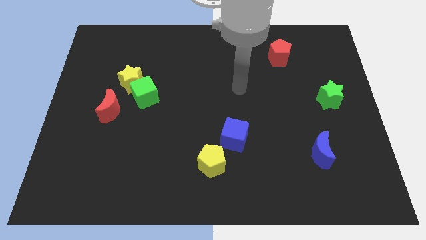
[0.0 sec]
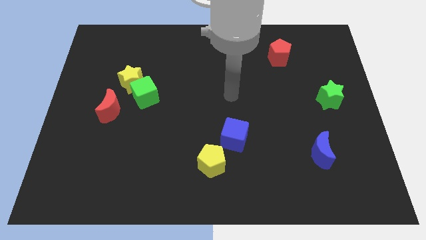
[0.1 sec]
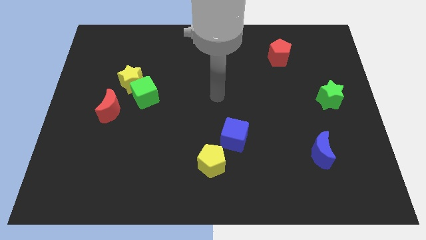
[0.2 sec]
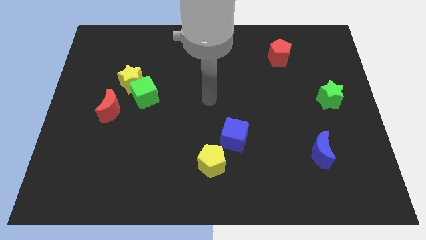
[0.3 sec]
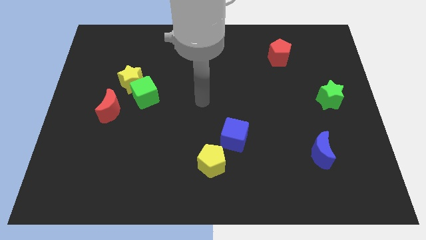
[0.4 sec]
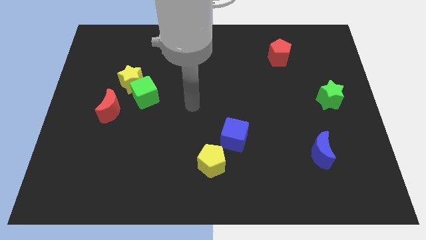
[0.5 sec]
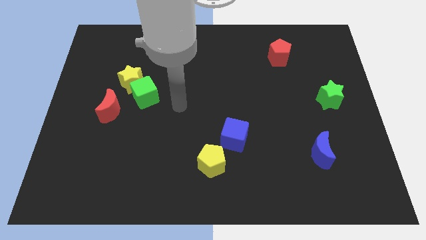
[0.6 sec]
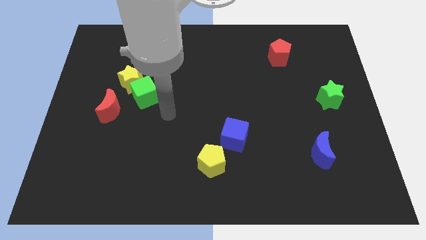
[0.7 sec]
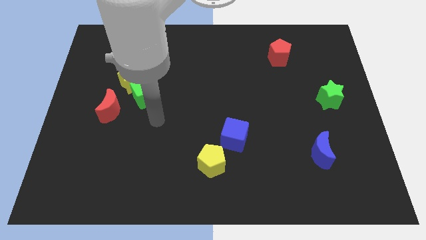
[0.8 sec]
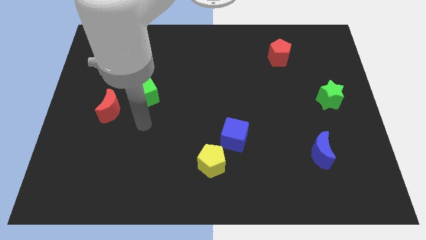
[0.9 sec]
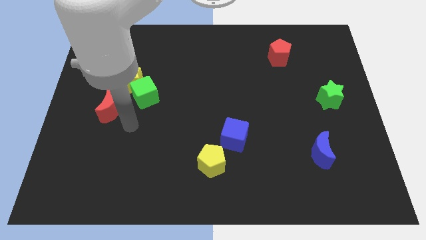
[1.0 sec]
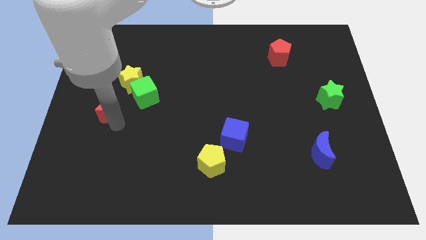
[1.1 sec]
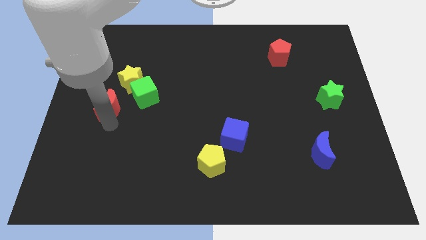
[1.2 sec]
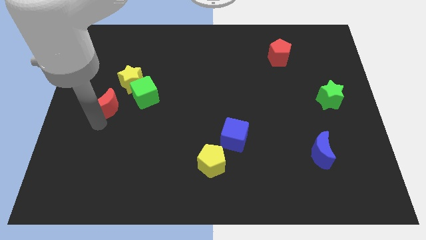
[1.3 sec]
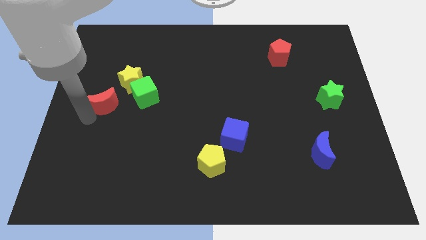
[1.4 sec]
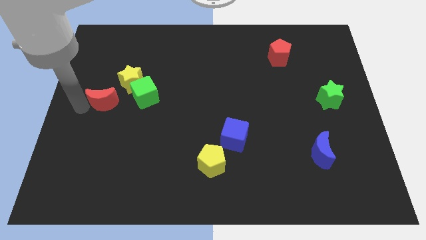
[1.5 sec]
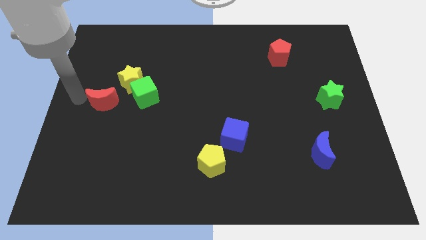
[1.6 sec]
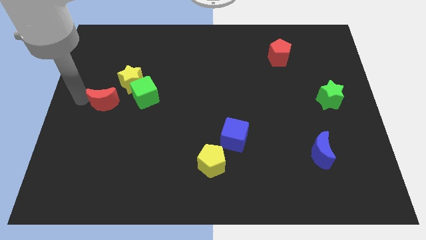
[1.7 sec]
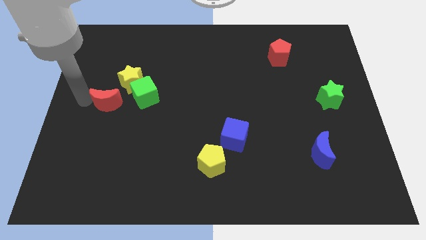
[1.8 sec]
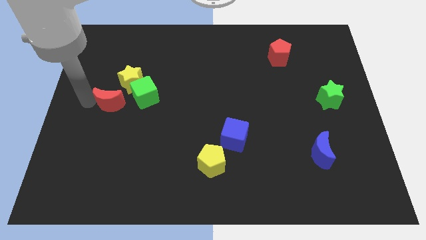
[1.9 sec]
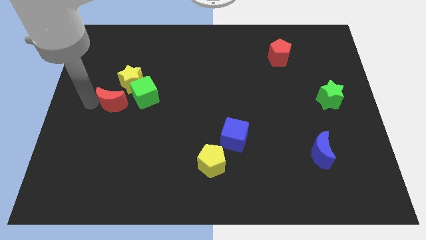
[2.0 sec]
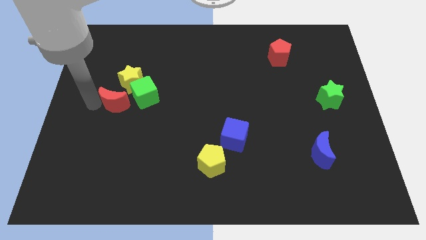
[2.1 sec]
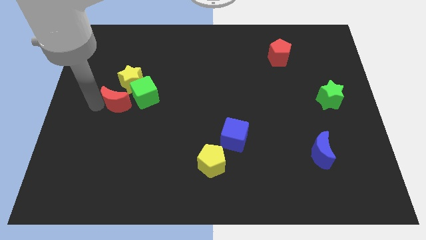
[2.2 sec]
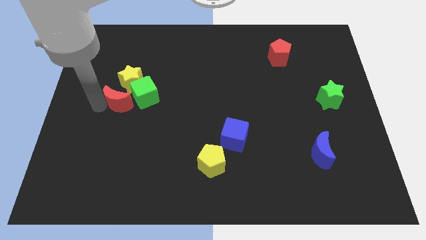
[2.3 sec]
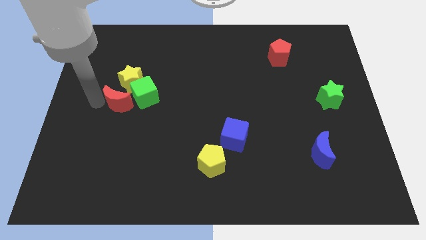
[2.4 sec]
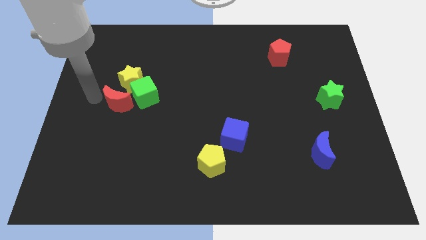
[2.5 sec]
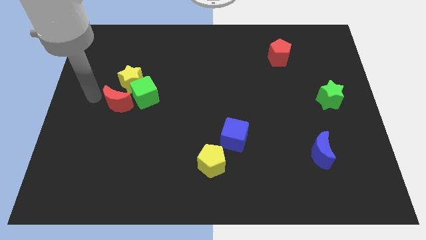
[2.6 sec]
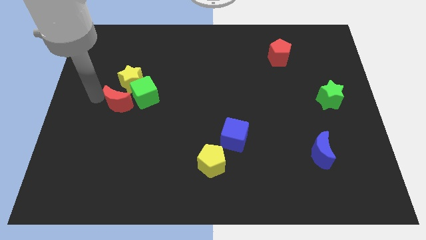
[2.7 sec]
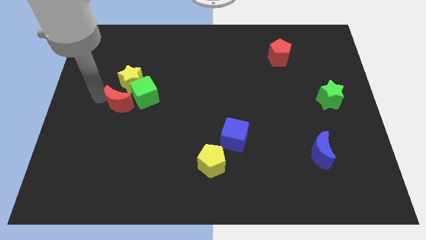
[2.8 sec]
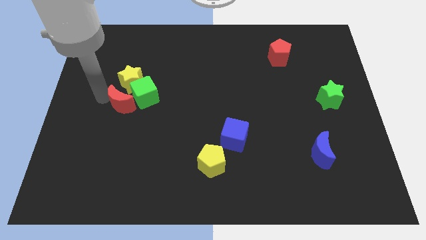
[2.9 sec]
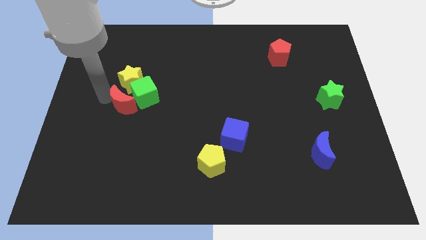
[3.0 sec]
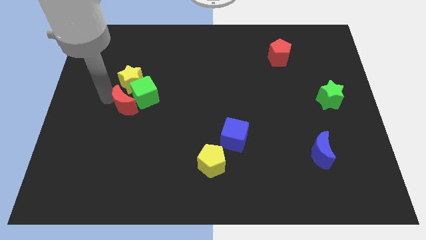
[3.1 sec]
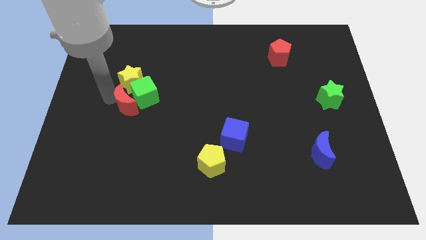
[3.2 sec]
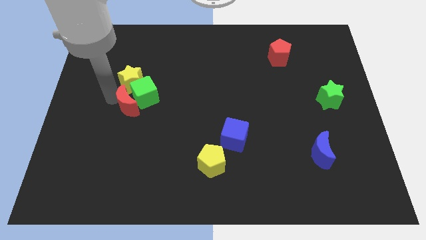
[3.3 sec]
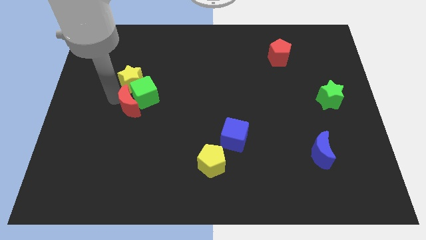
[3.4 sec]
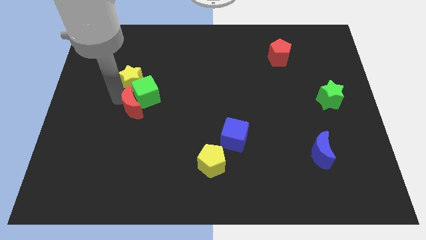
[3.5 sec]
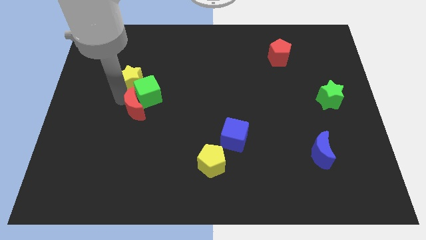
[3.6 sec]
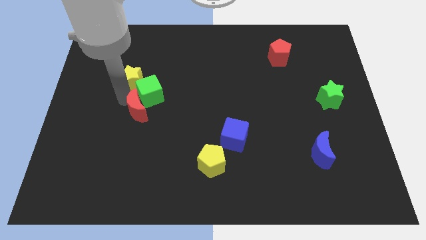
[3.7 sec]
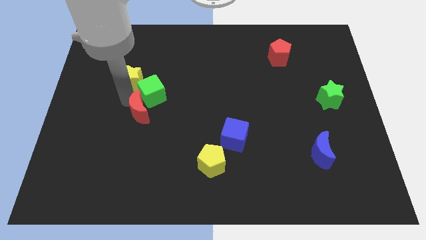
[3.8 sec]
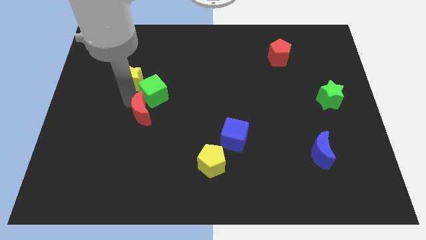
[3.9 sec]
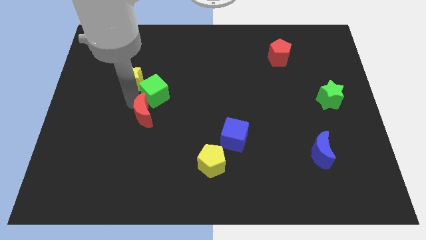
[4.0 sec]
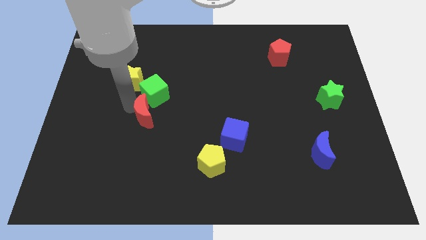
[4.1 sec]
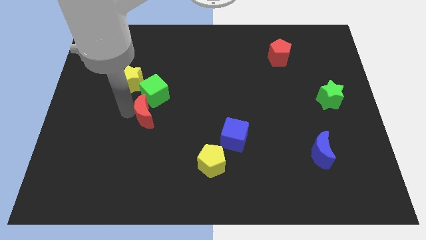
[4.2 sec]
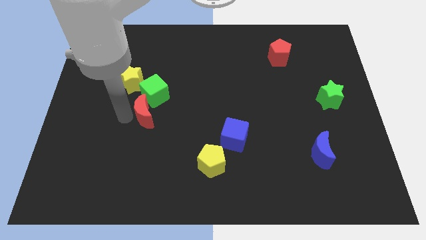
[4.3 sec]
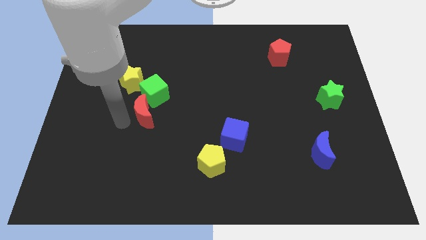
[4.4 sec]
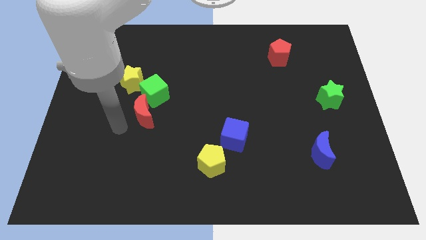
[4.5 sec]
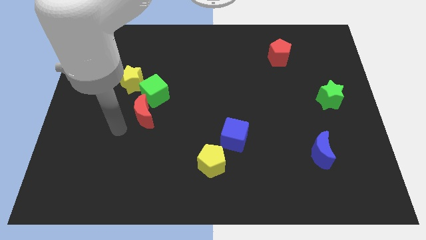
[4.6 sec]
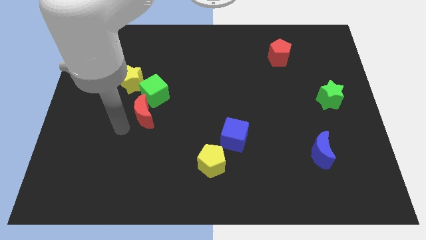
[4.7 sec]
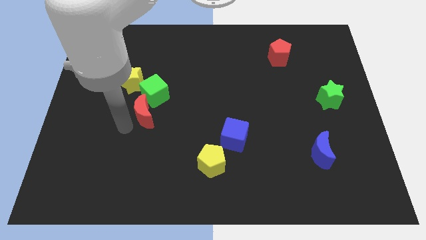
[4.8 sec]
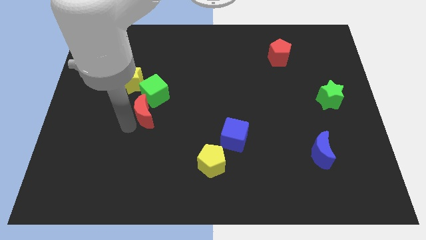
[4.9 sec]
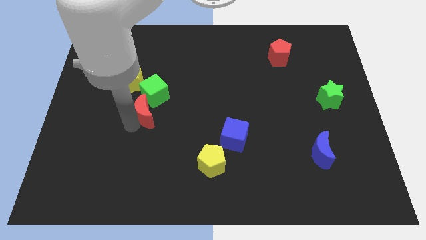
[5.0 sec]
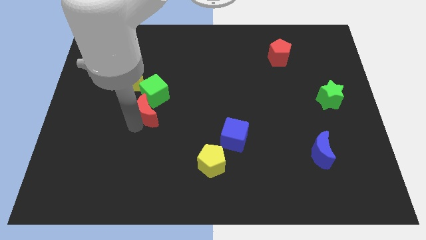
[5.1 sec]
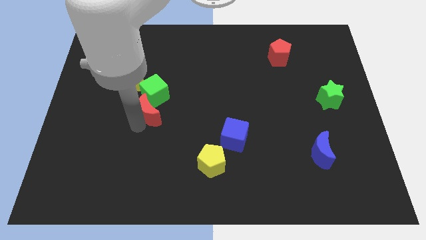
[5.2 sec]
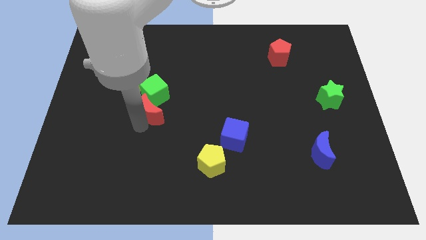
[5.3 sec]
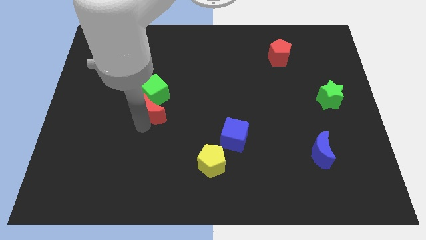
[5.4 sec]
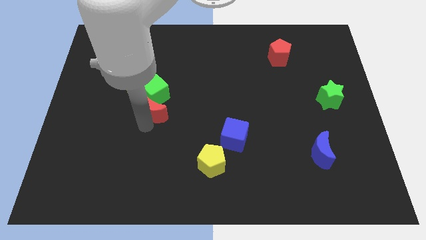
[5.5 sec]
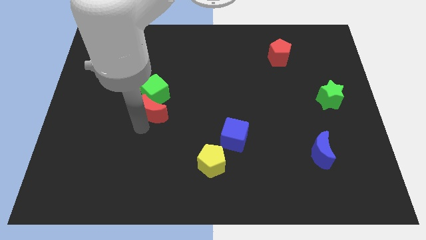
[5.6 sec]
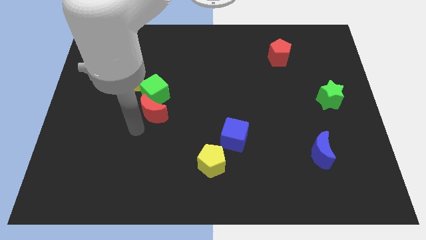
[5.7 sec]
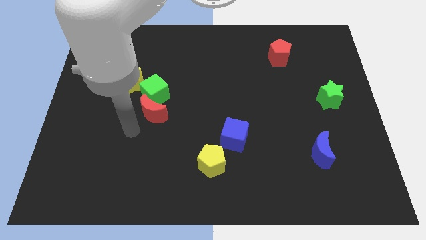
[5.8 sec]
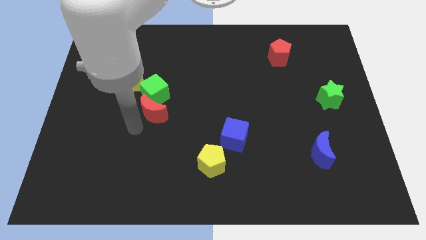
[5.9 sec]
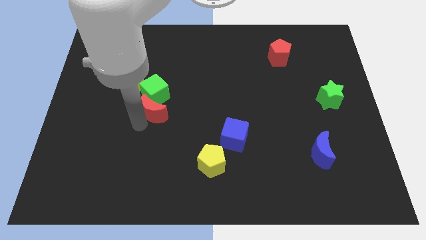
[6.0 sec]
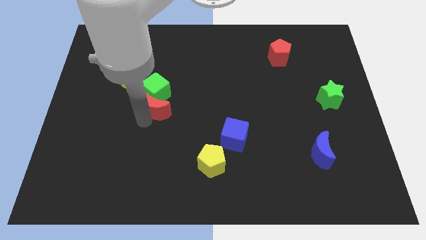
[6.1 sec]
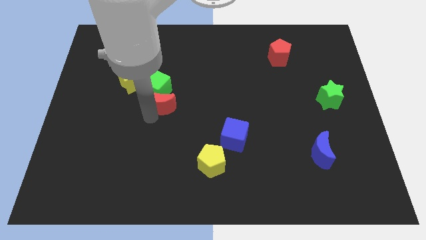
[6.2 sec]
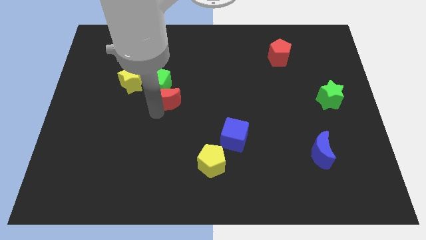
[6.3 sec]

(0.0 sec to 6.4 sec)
push the red moon somewhat up and to the right diagonally

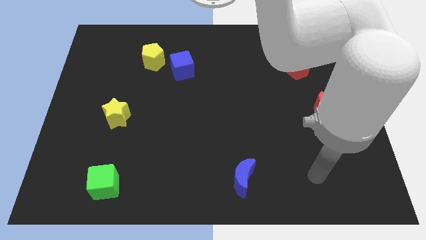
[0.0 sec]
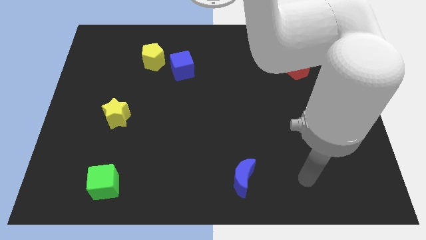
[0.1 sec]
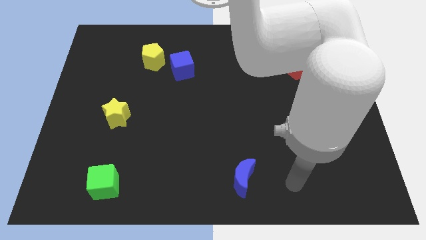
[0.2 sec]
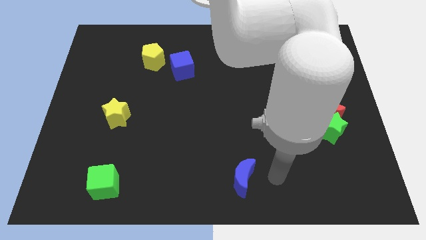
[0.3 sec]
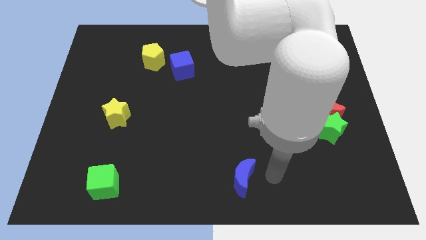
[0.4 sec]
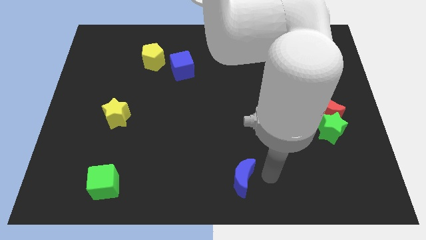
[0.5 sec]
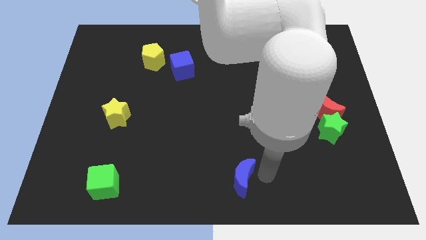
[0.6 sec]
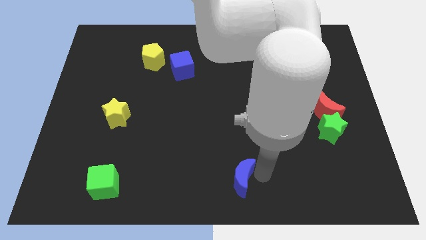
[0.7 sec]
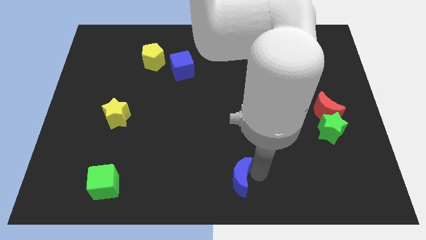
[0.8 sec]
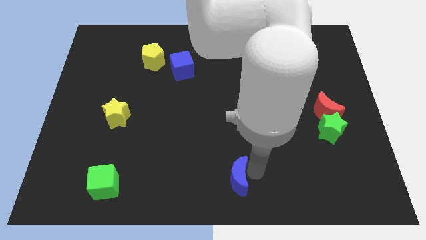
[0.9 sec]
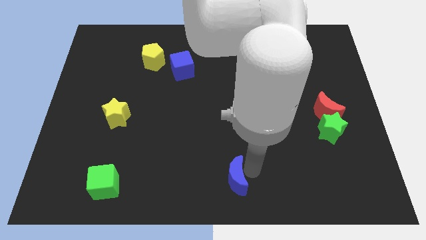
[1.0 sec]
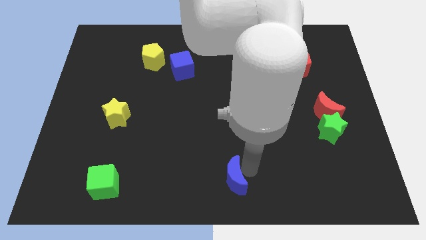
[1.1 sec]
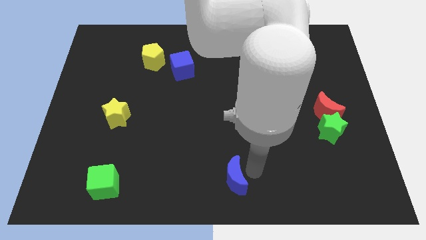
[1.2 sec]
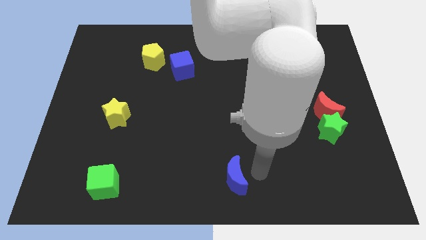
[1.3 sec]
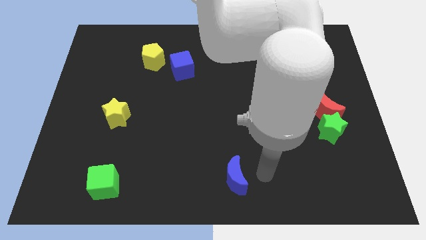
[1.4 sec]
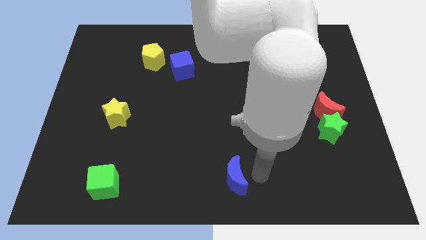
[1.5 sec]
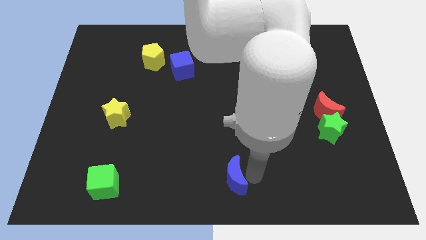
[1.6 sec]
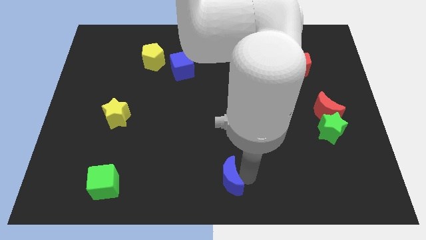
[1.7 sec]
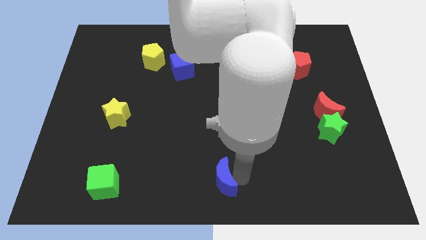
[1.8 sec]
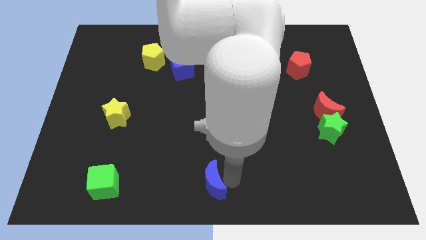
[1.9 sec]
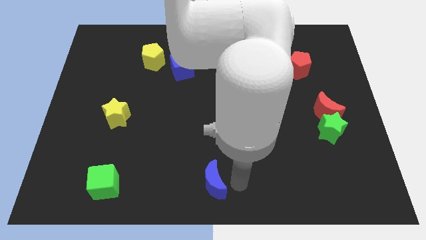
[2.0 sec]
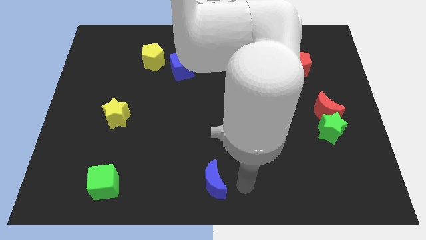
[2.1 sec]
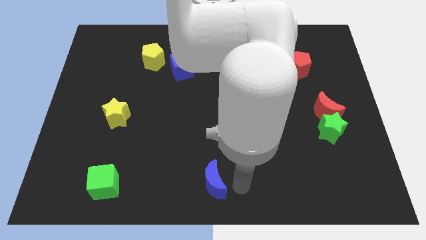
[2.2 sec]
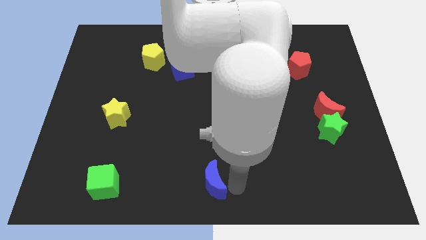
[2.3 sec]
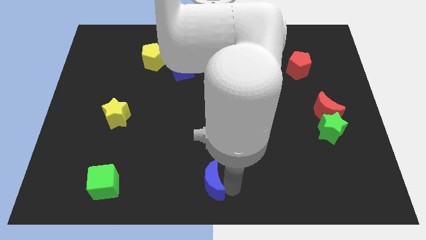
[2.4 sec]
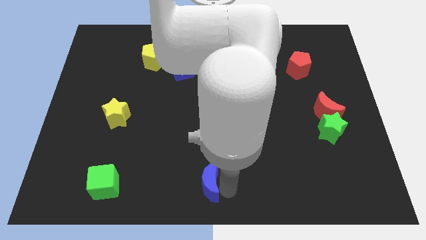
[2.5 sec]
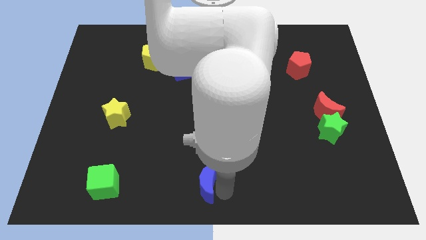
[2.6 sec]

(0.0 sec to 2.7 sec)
push the blue moon a bit to the left
